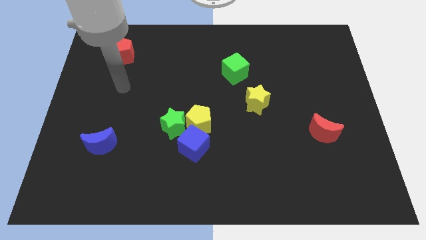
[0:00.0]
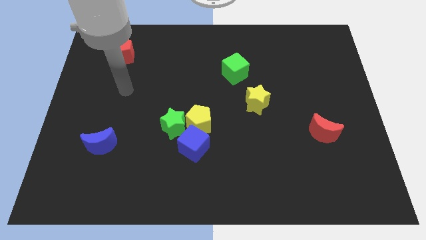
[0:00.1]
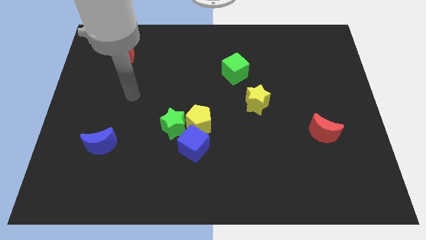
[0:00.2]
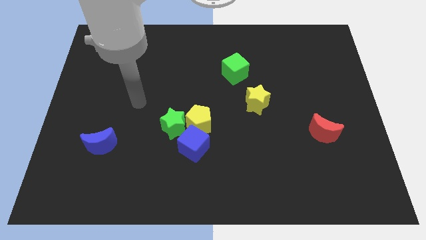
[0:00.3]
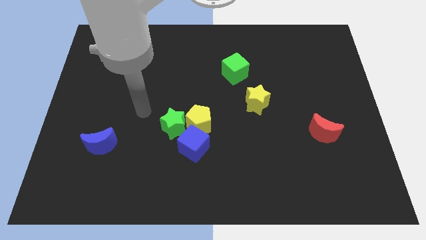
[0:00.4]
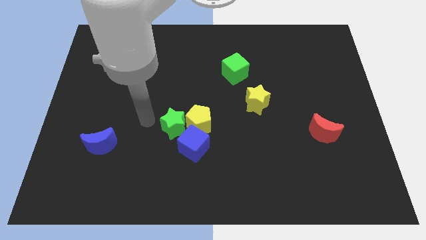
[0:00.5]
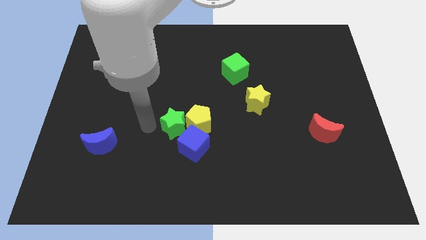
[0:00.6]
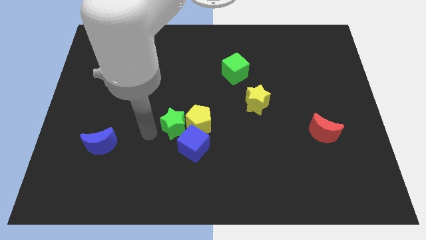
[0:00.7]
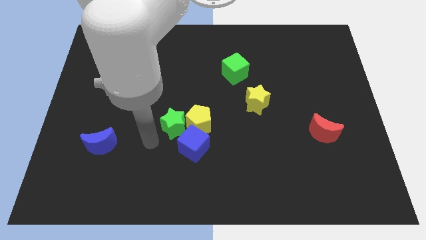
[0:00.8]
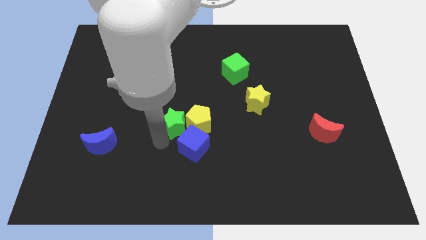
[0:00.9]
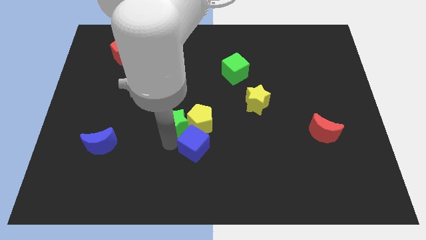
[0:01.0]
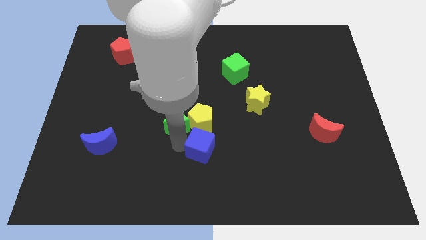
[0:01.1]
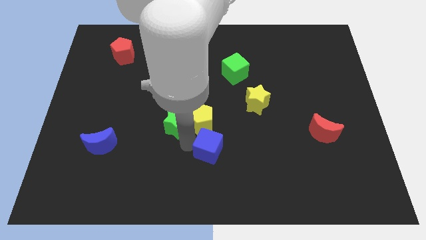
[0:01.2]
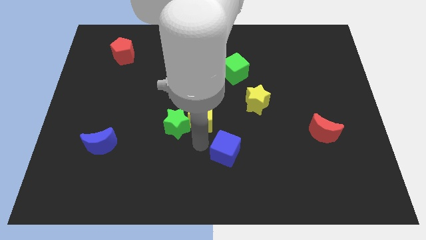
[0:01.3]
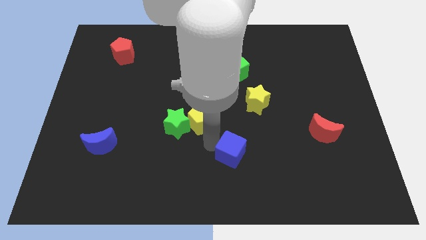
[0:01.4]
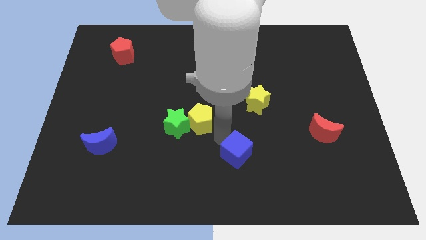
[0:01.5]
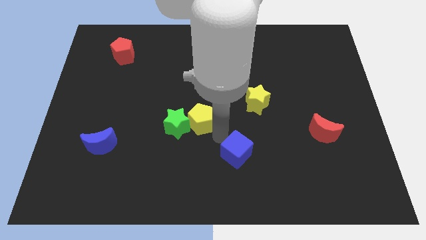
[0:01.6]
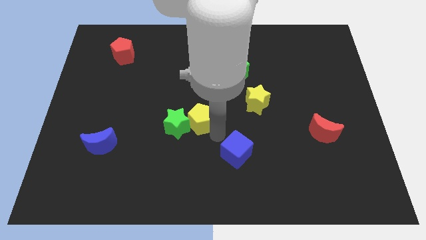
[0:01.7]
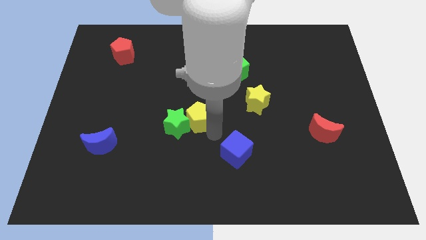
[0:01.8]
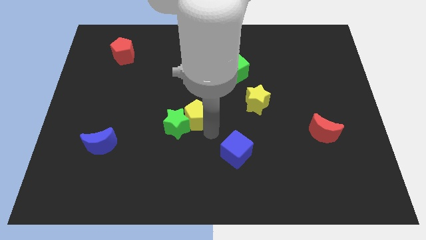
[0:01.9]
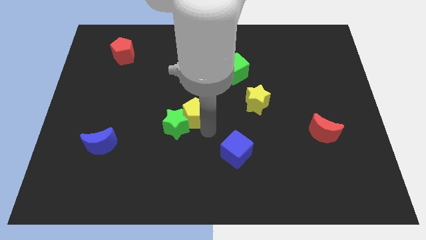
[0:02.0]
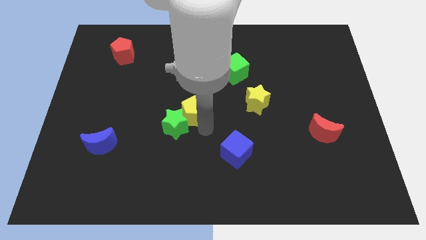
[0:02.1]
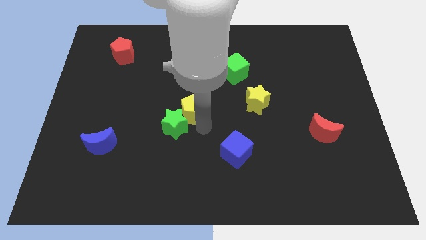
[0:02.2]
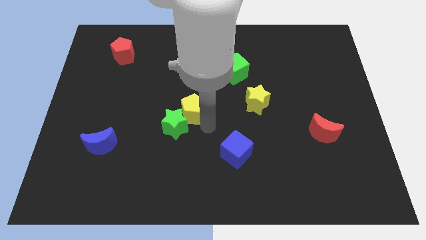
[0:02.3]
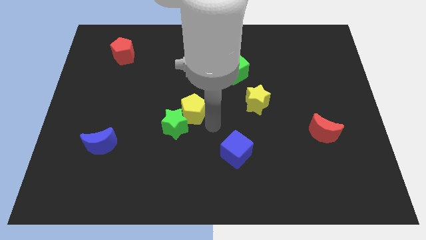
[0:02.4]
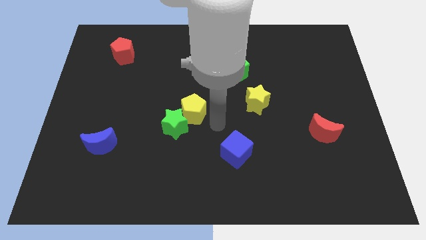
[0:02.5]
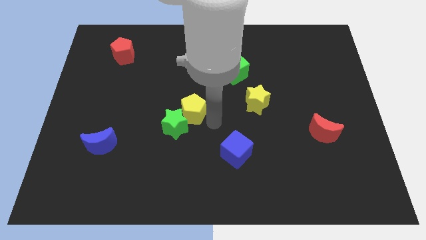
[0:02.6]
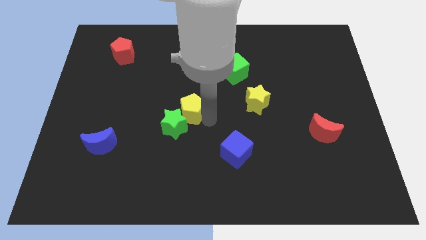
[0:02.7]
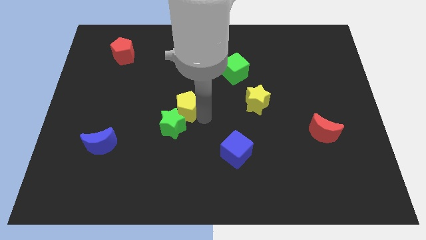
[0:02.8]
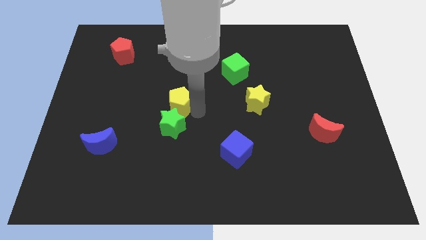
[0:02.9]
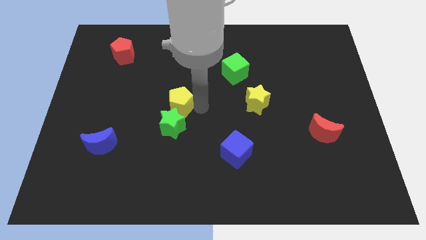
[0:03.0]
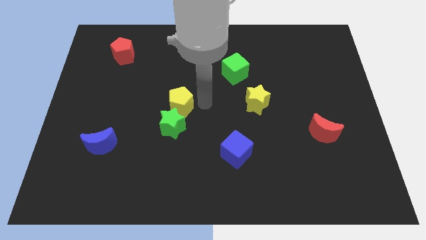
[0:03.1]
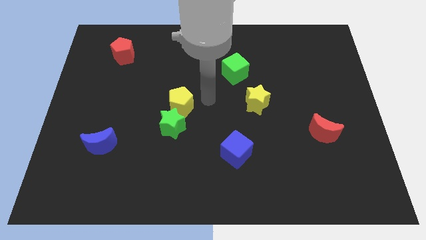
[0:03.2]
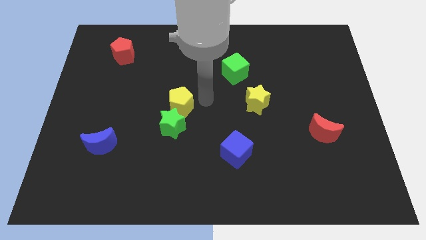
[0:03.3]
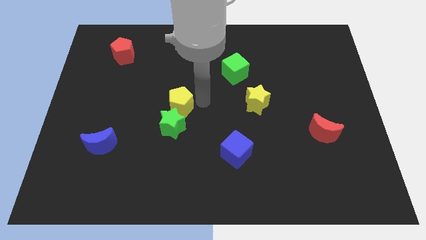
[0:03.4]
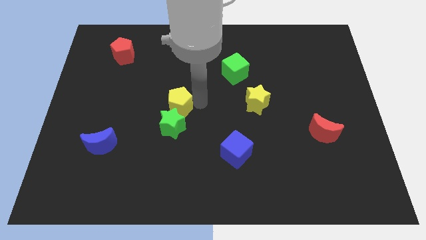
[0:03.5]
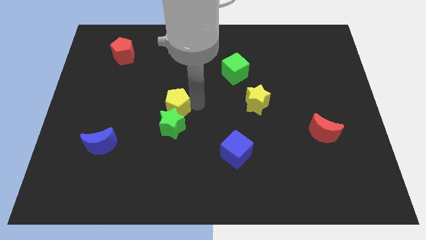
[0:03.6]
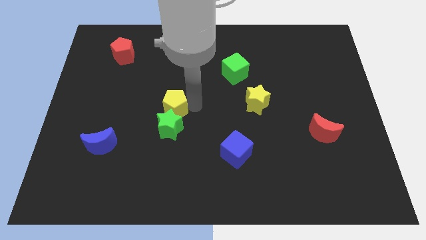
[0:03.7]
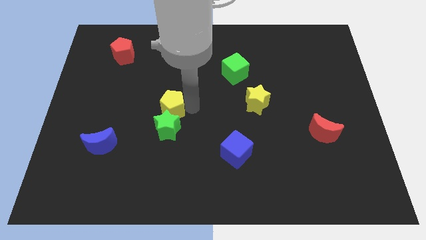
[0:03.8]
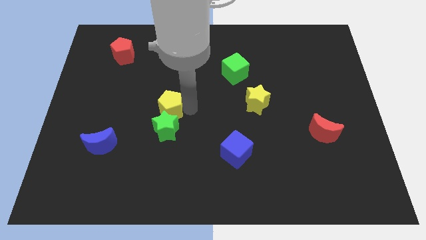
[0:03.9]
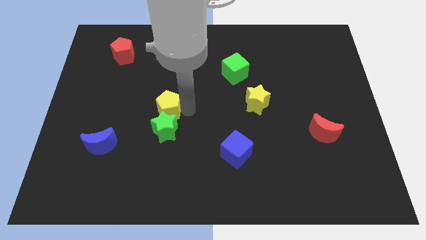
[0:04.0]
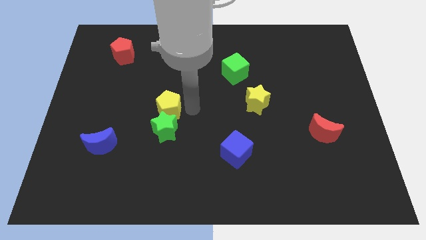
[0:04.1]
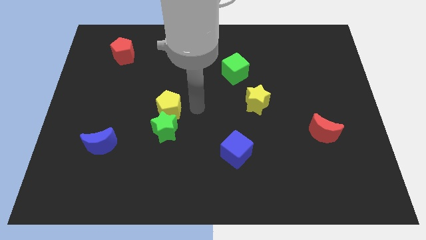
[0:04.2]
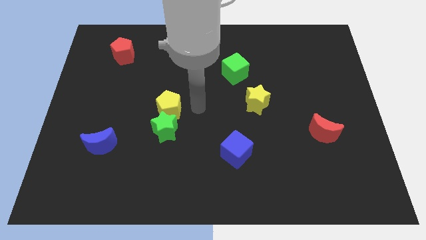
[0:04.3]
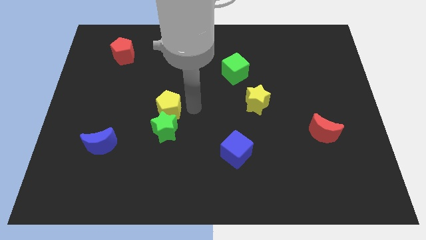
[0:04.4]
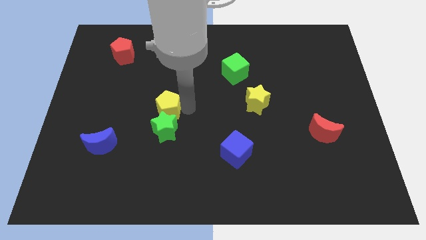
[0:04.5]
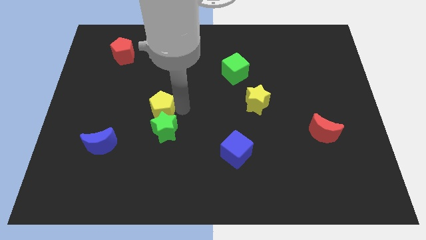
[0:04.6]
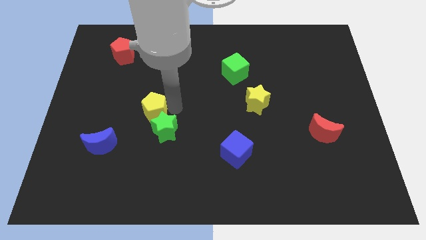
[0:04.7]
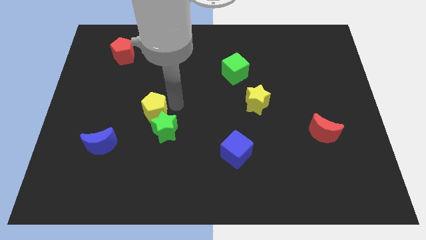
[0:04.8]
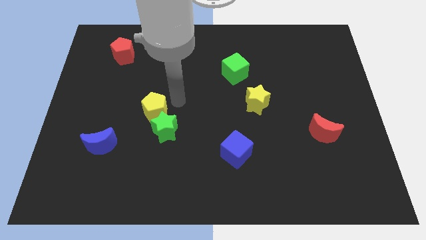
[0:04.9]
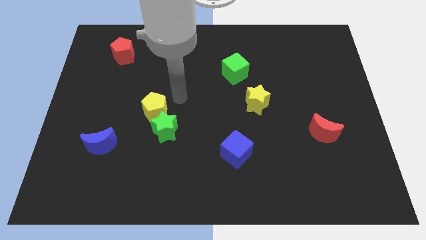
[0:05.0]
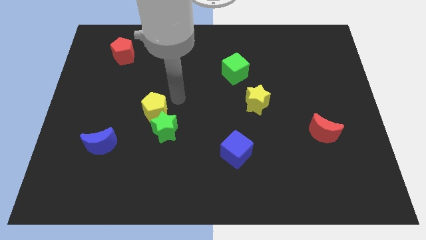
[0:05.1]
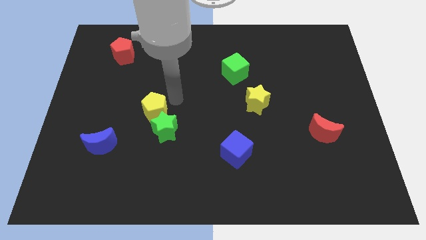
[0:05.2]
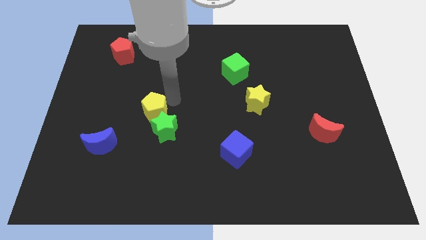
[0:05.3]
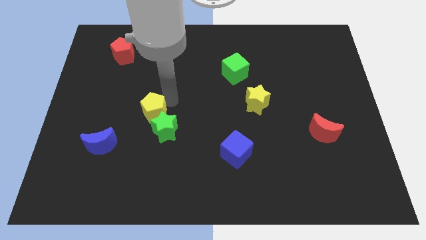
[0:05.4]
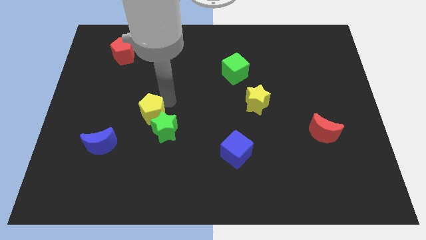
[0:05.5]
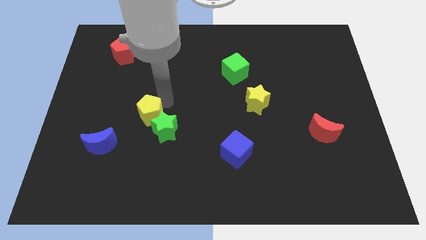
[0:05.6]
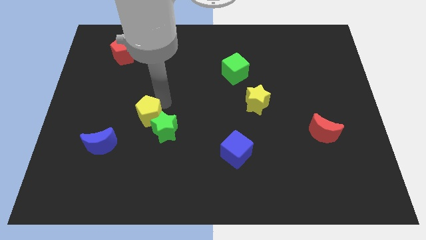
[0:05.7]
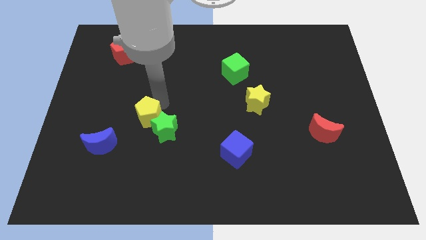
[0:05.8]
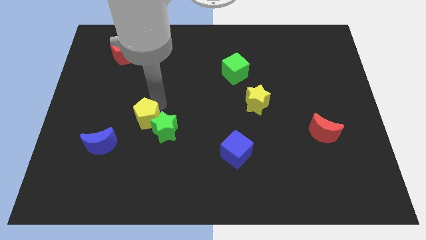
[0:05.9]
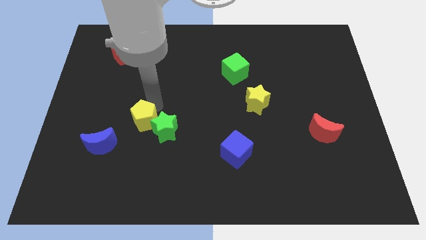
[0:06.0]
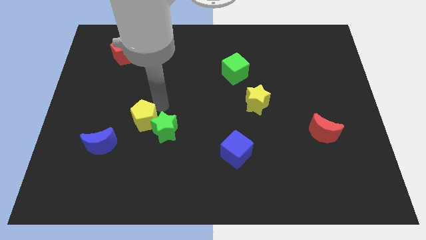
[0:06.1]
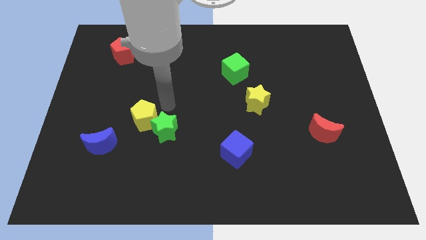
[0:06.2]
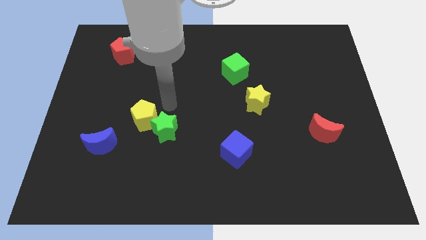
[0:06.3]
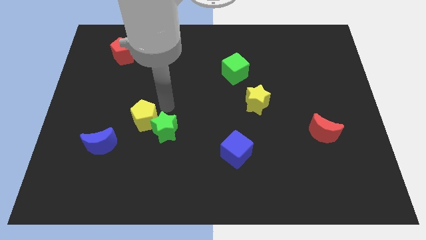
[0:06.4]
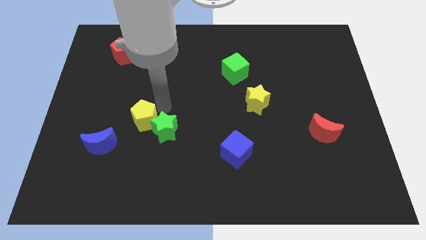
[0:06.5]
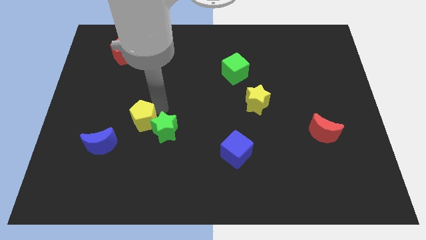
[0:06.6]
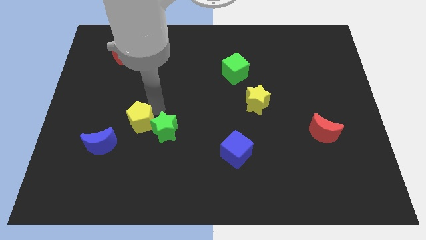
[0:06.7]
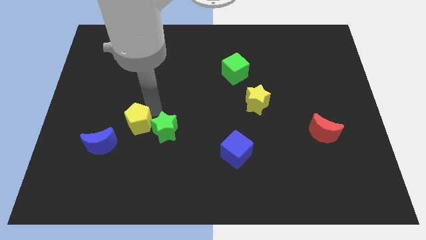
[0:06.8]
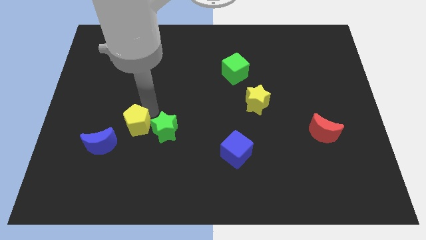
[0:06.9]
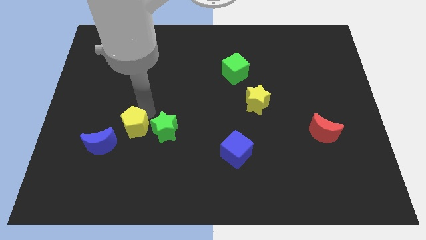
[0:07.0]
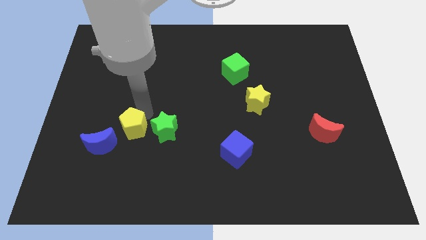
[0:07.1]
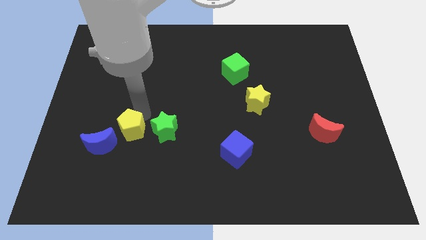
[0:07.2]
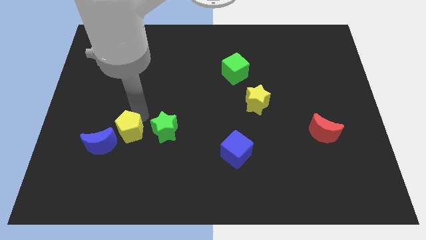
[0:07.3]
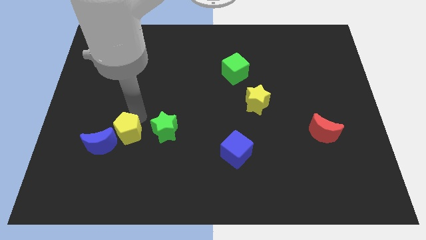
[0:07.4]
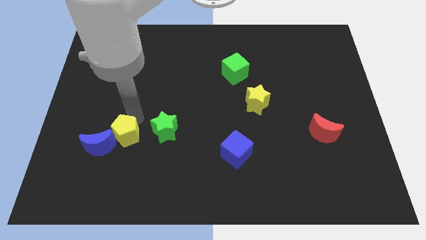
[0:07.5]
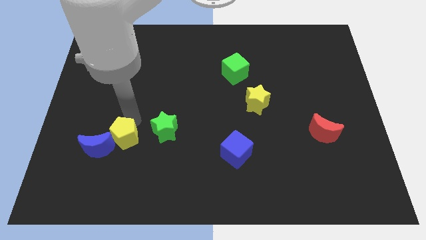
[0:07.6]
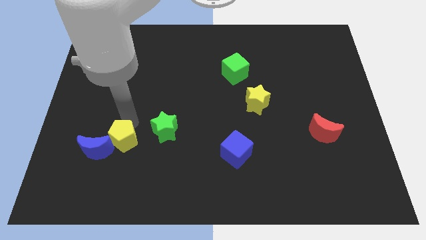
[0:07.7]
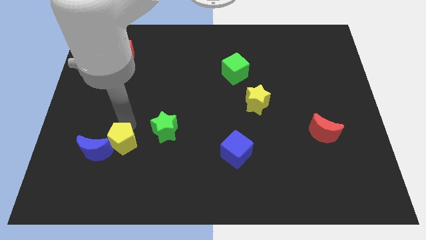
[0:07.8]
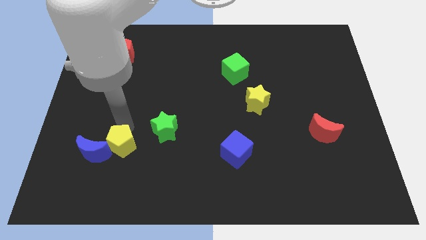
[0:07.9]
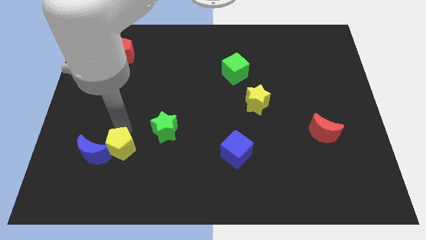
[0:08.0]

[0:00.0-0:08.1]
slide the yellow pentagon next to the blue moon
